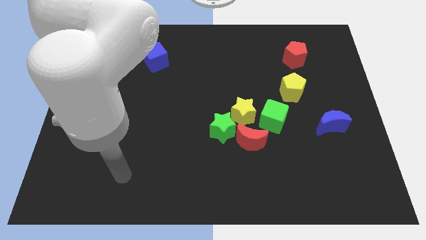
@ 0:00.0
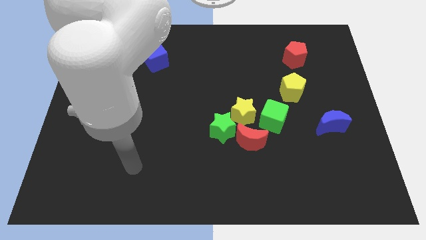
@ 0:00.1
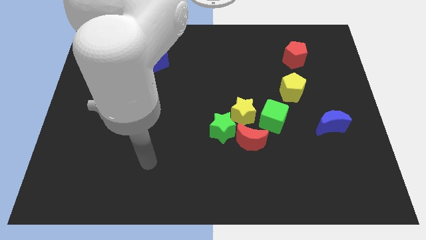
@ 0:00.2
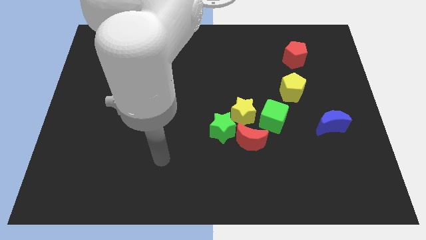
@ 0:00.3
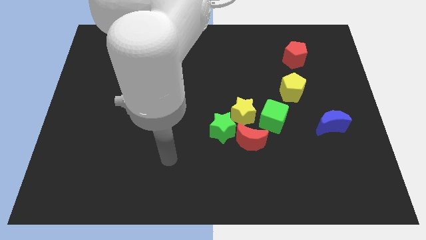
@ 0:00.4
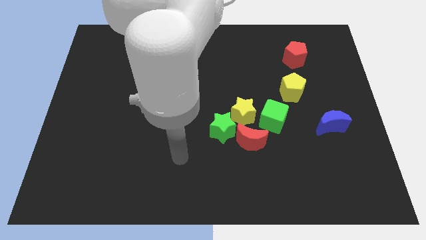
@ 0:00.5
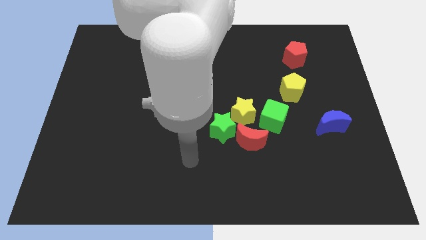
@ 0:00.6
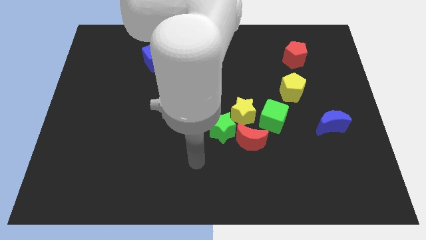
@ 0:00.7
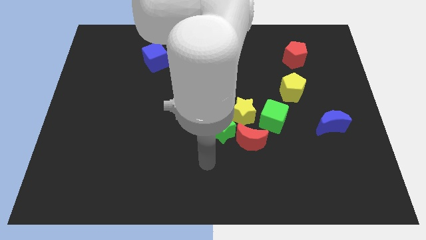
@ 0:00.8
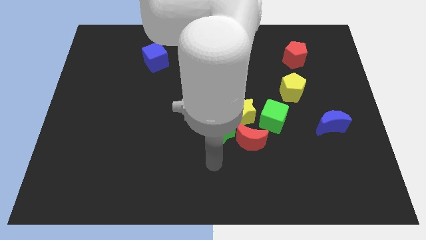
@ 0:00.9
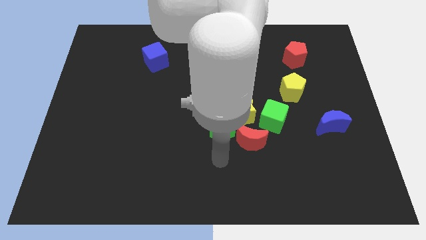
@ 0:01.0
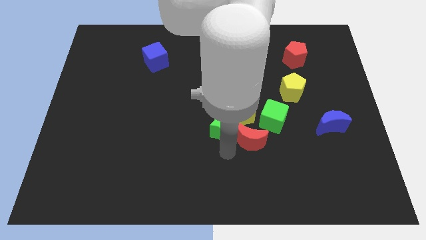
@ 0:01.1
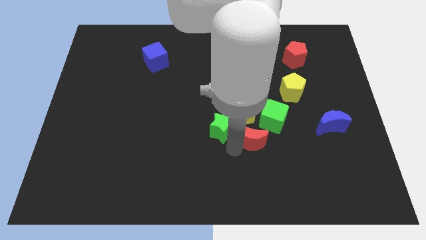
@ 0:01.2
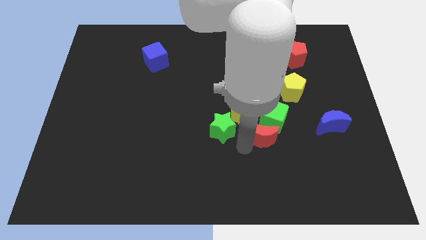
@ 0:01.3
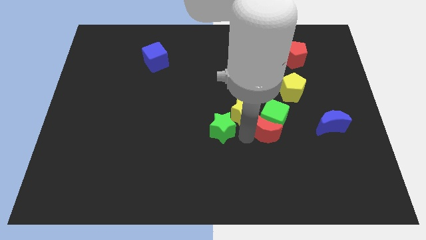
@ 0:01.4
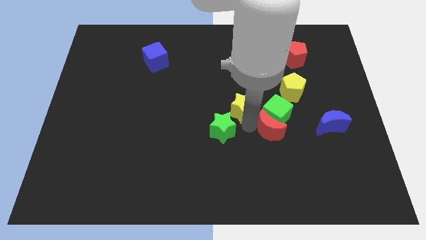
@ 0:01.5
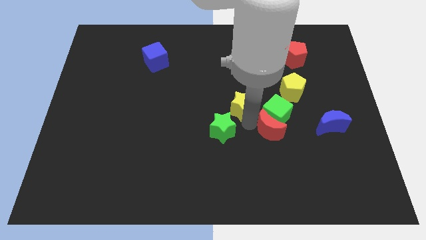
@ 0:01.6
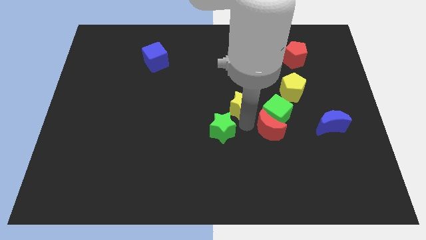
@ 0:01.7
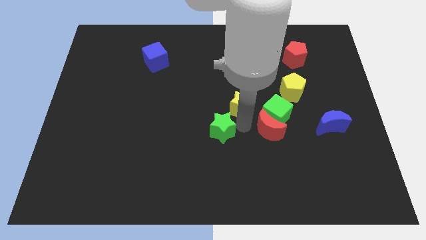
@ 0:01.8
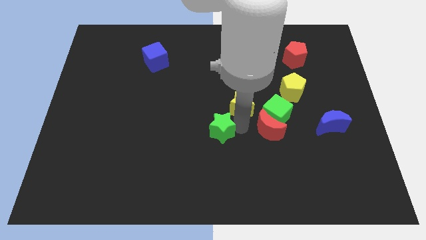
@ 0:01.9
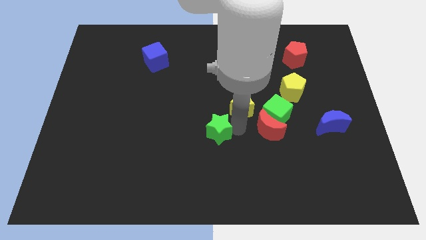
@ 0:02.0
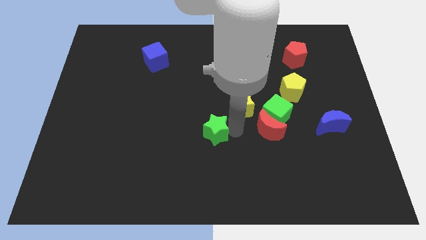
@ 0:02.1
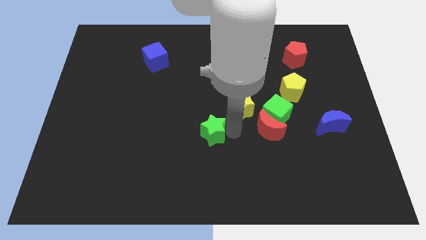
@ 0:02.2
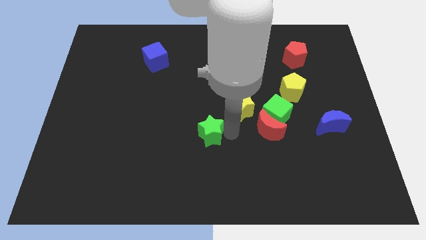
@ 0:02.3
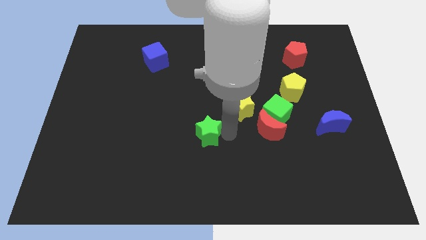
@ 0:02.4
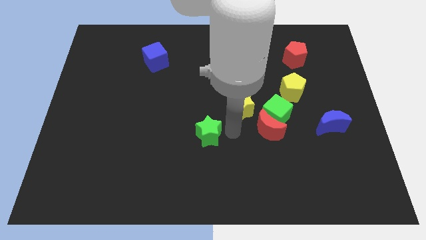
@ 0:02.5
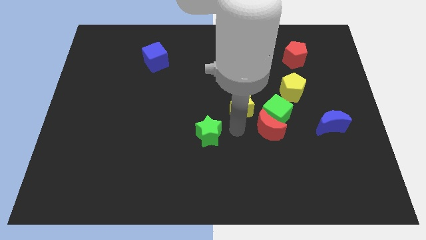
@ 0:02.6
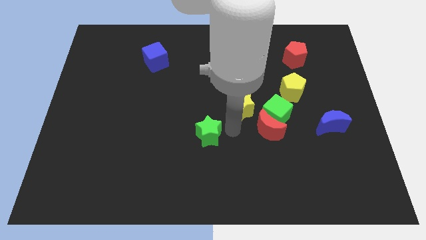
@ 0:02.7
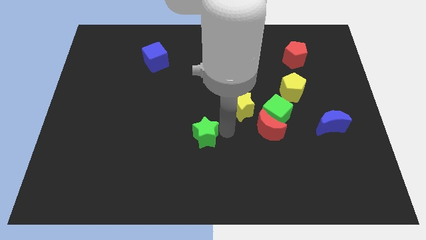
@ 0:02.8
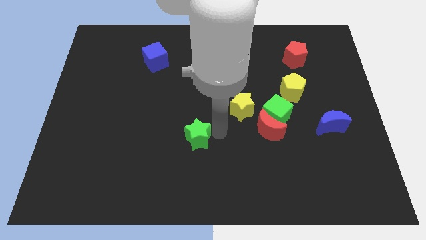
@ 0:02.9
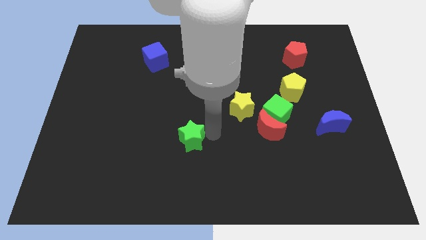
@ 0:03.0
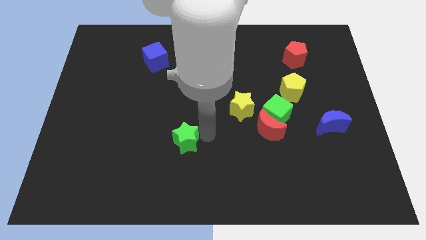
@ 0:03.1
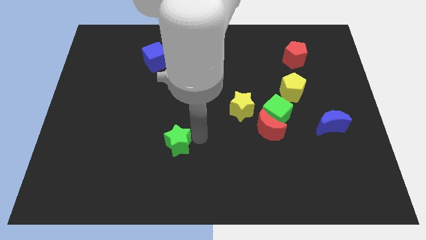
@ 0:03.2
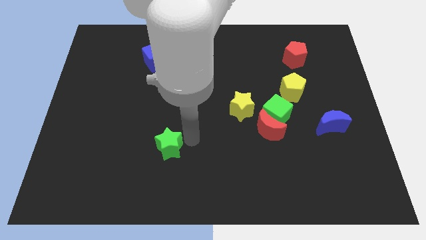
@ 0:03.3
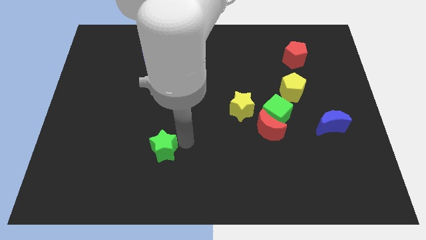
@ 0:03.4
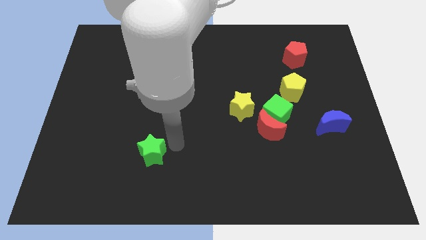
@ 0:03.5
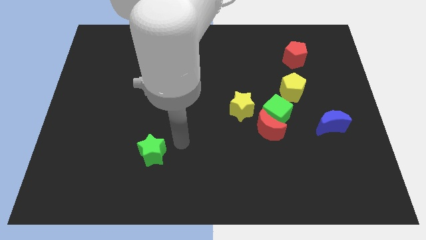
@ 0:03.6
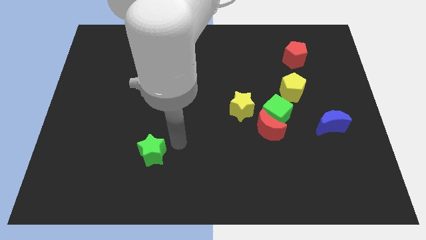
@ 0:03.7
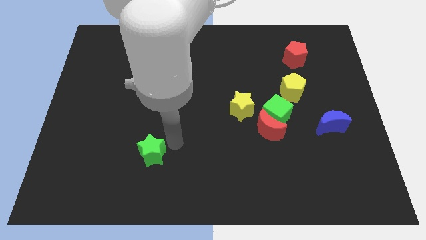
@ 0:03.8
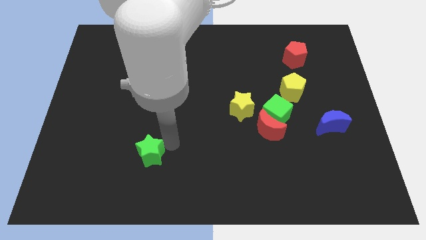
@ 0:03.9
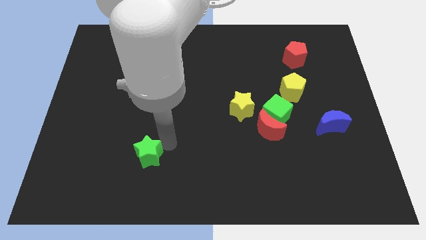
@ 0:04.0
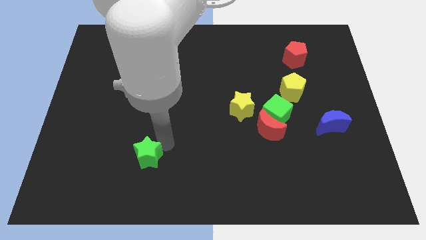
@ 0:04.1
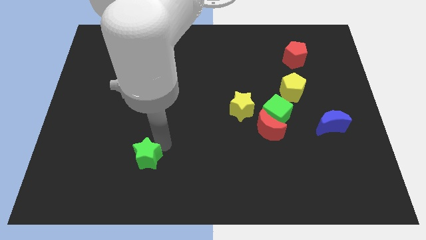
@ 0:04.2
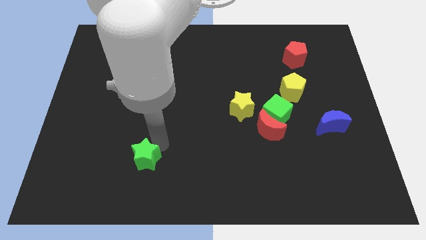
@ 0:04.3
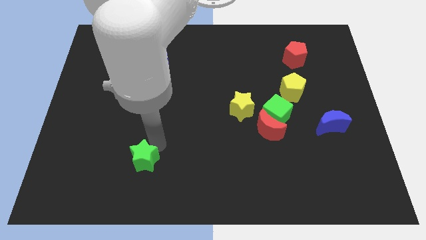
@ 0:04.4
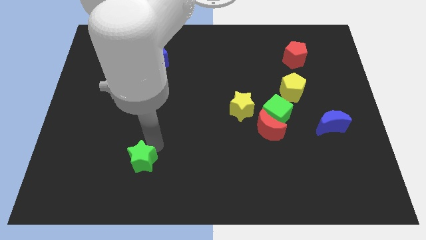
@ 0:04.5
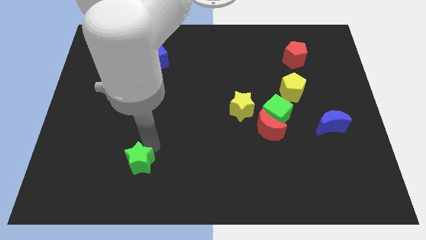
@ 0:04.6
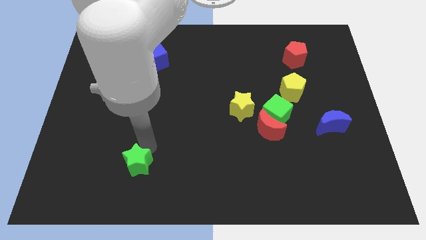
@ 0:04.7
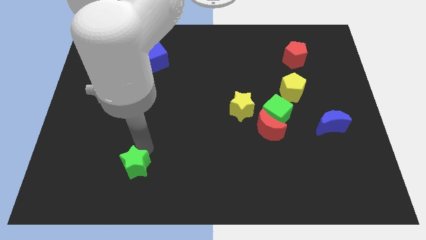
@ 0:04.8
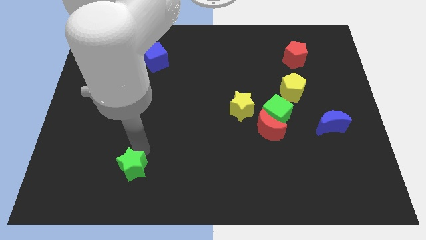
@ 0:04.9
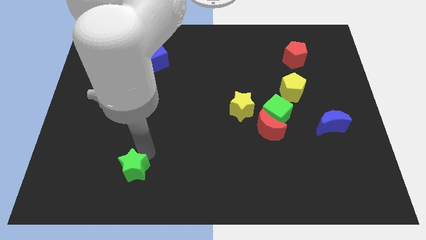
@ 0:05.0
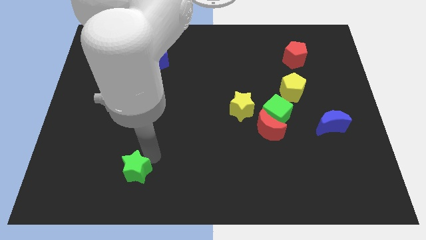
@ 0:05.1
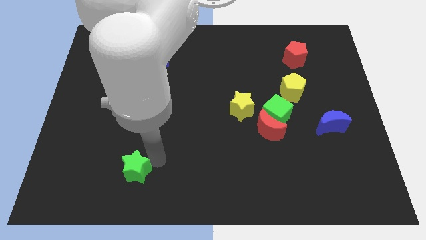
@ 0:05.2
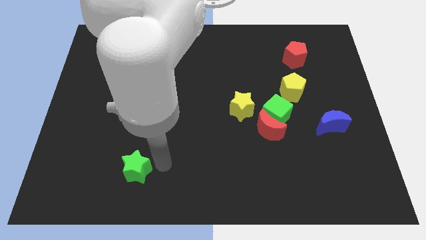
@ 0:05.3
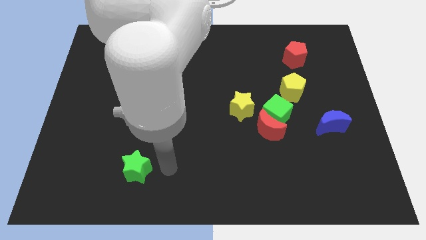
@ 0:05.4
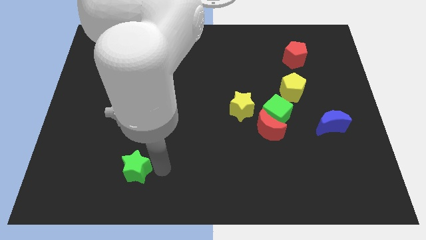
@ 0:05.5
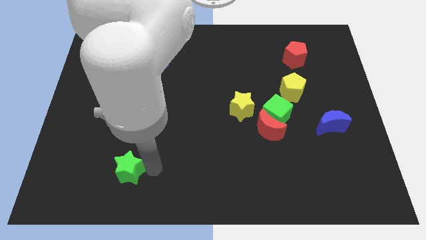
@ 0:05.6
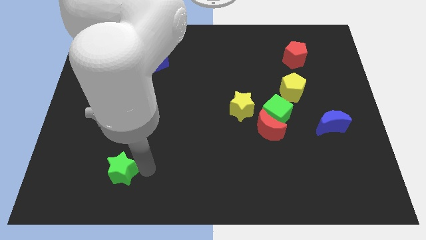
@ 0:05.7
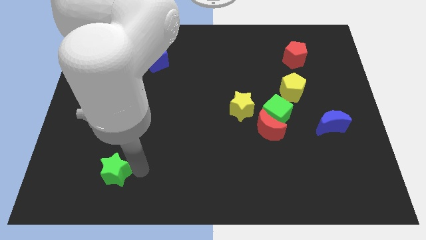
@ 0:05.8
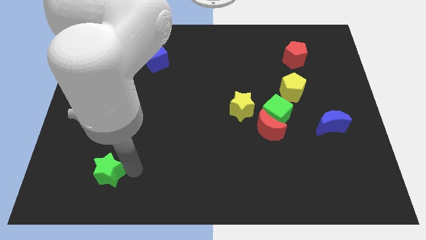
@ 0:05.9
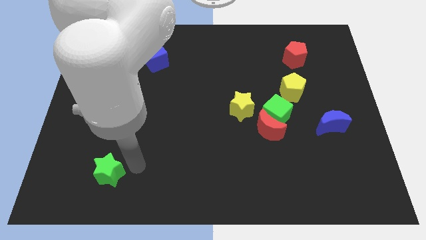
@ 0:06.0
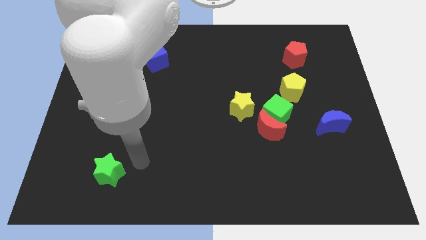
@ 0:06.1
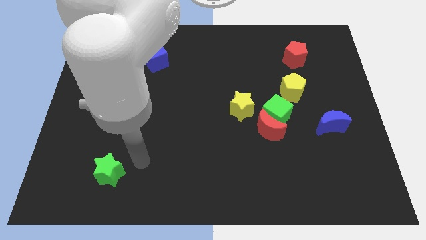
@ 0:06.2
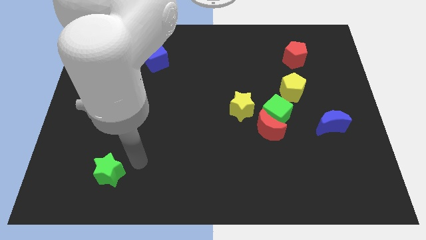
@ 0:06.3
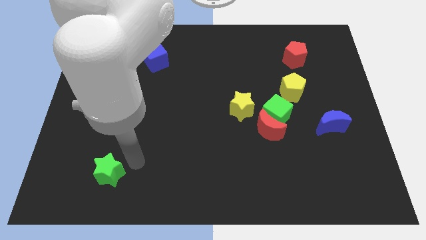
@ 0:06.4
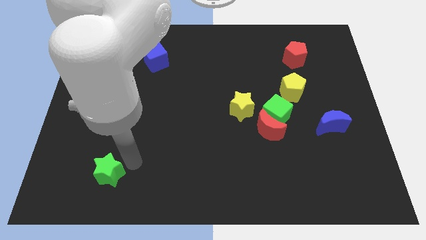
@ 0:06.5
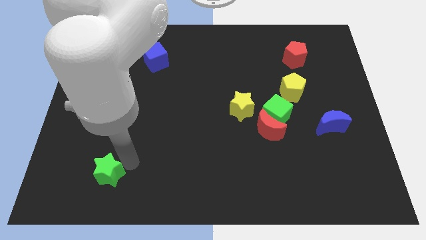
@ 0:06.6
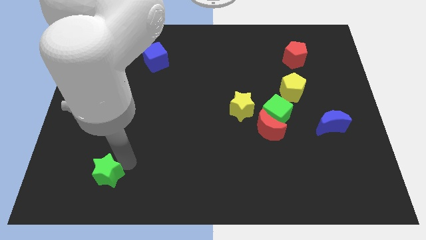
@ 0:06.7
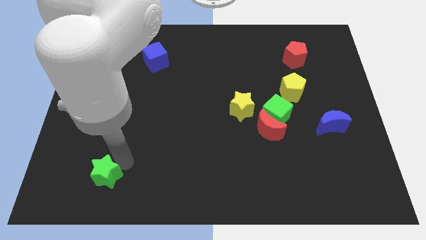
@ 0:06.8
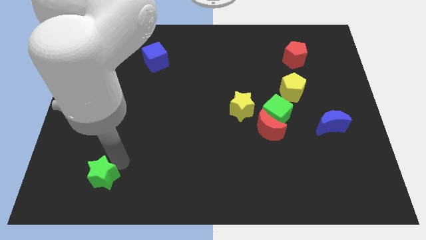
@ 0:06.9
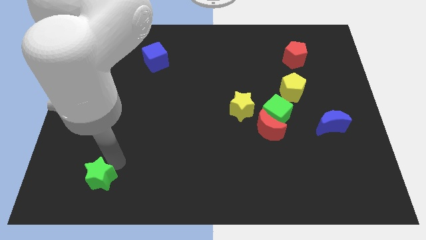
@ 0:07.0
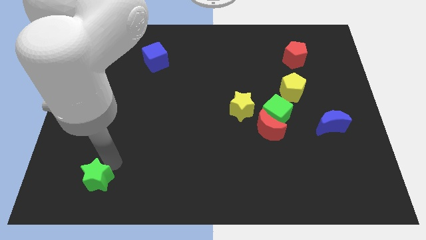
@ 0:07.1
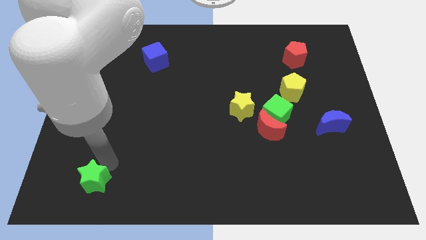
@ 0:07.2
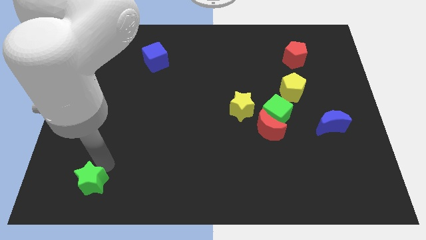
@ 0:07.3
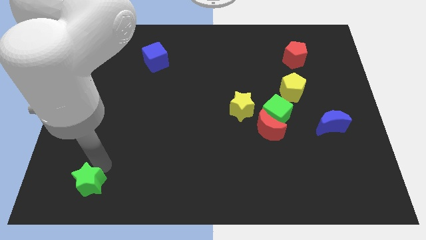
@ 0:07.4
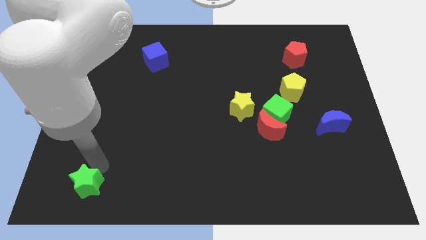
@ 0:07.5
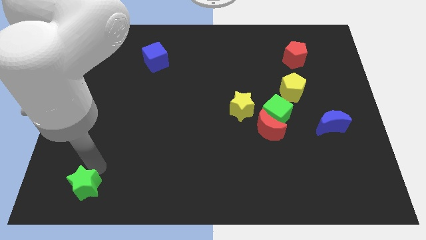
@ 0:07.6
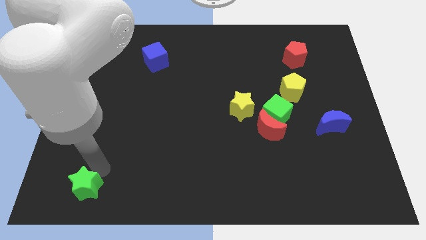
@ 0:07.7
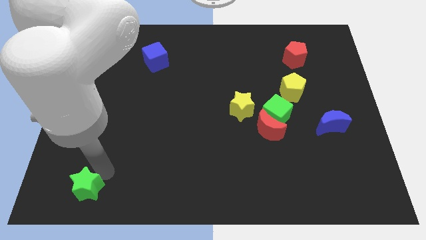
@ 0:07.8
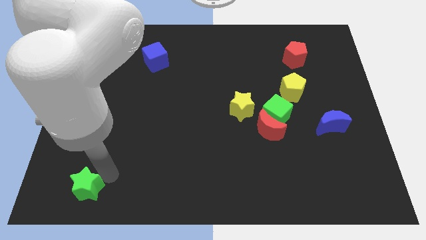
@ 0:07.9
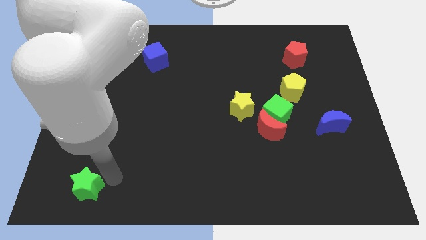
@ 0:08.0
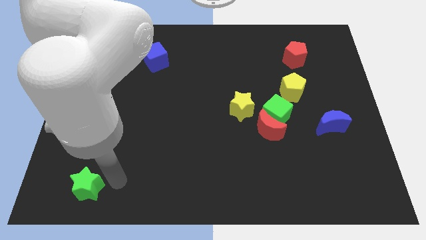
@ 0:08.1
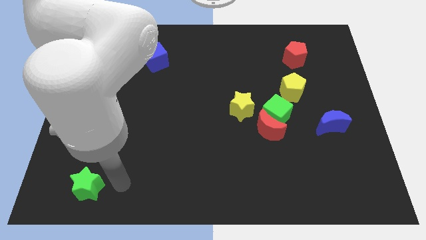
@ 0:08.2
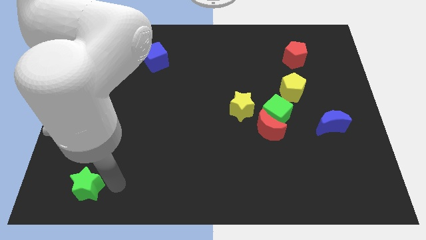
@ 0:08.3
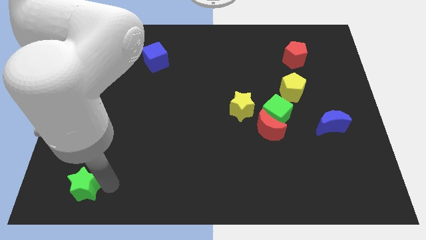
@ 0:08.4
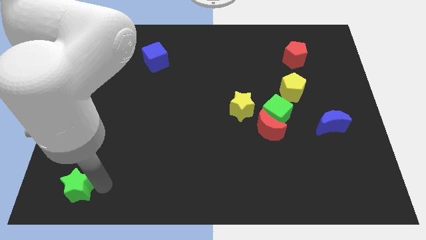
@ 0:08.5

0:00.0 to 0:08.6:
slide the green star to the lower left corner
